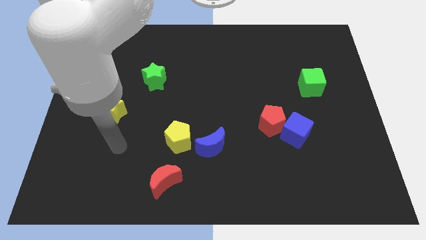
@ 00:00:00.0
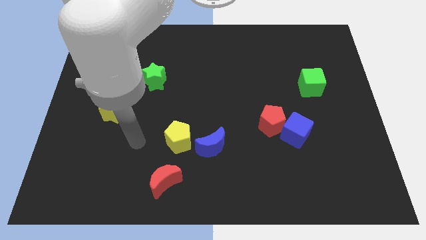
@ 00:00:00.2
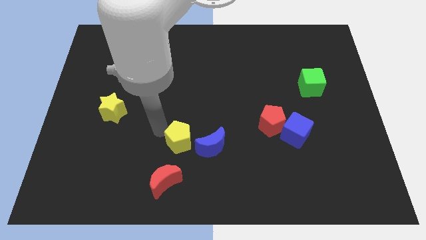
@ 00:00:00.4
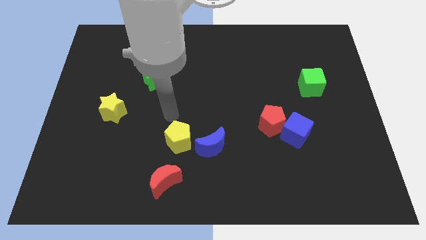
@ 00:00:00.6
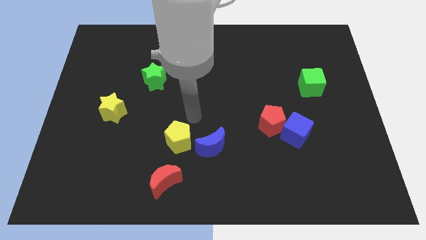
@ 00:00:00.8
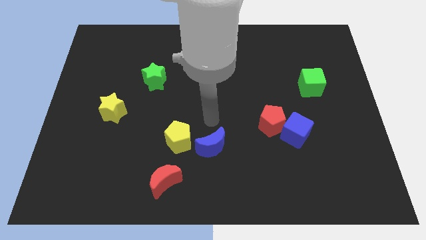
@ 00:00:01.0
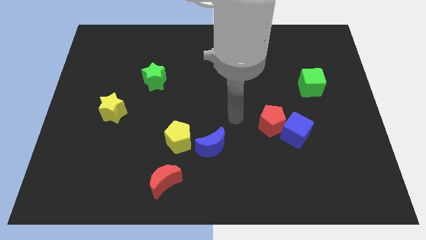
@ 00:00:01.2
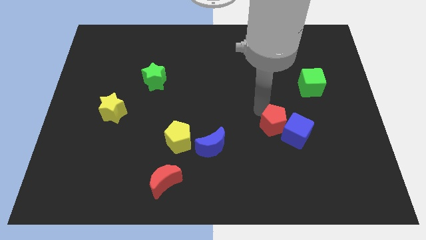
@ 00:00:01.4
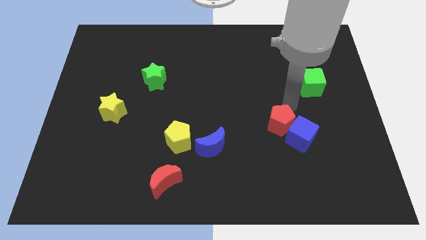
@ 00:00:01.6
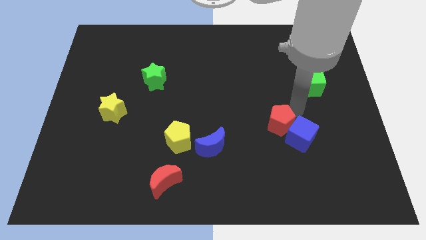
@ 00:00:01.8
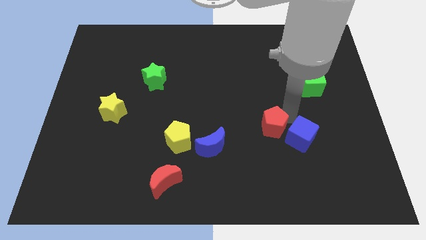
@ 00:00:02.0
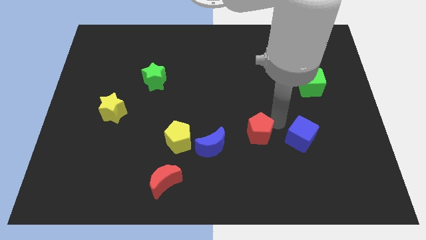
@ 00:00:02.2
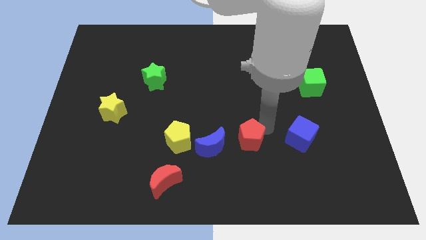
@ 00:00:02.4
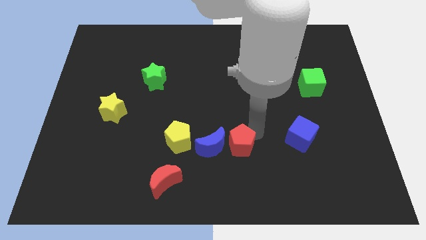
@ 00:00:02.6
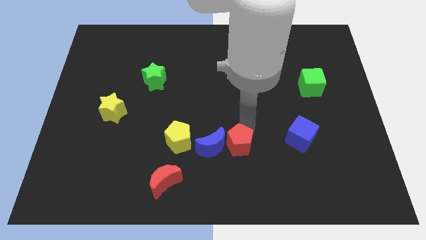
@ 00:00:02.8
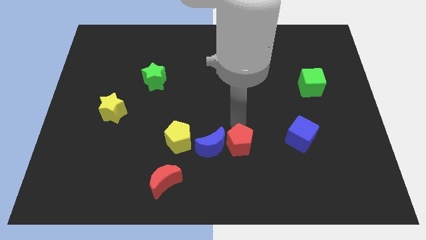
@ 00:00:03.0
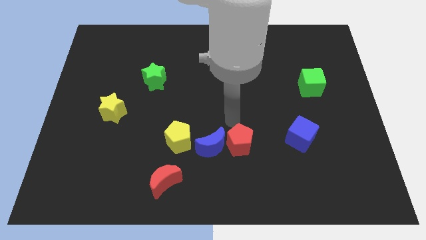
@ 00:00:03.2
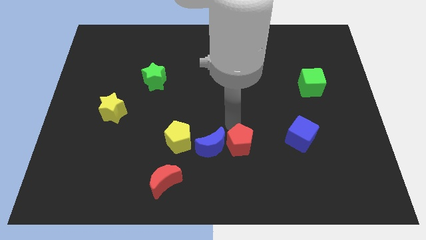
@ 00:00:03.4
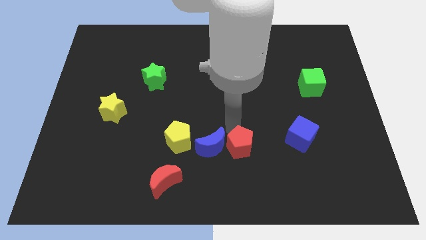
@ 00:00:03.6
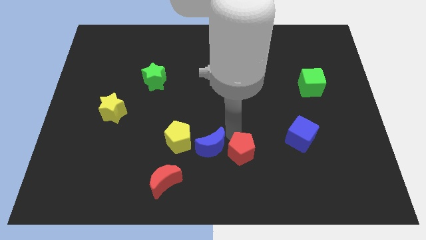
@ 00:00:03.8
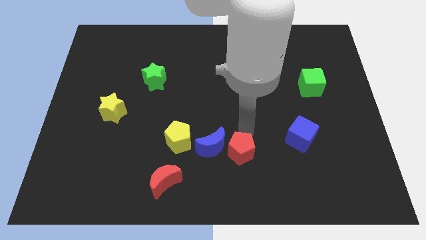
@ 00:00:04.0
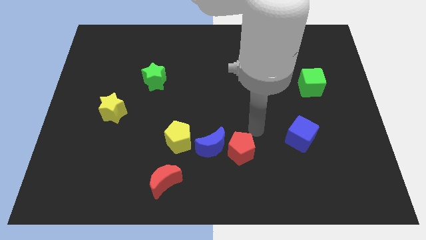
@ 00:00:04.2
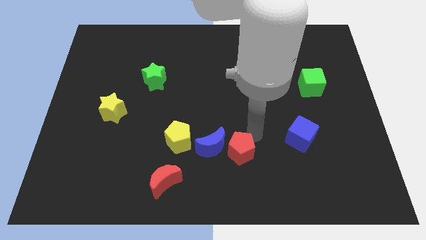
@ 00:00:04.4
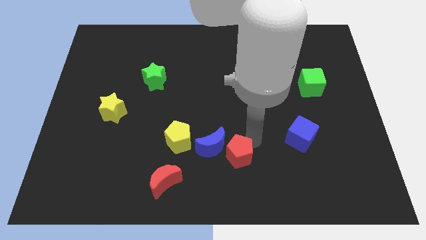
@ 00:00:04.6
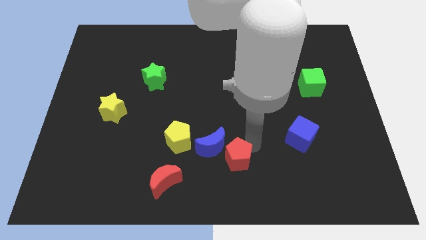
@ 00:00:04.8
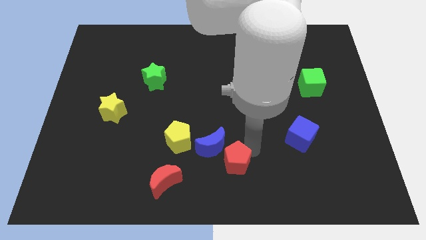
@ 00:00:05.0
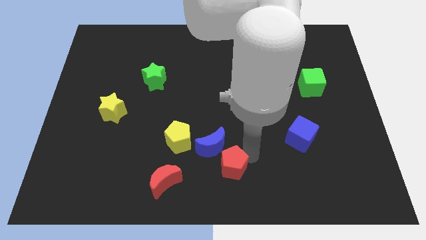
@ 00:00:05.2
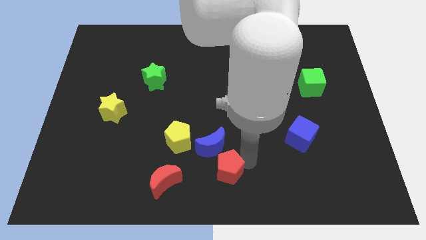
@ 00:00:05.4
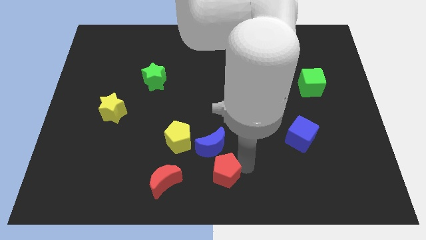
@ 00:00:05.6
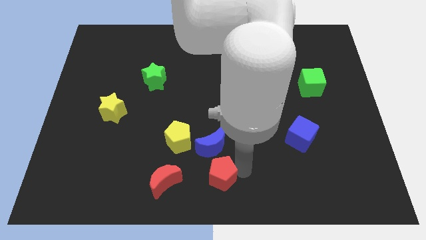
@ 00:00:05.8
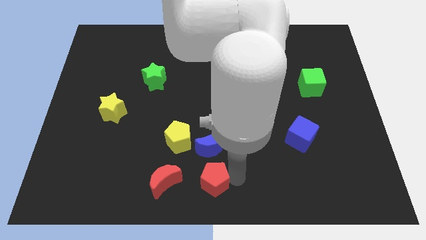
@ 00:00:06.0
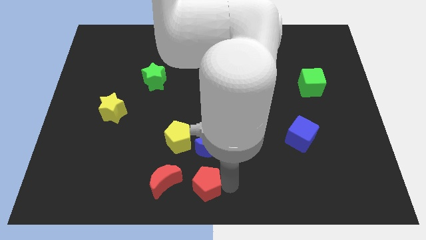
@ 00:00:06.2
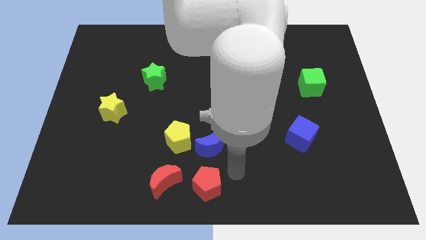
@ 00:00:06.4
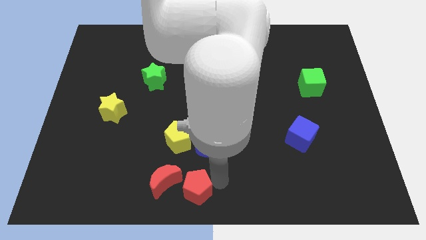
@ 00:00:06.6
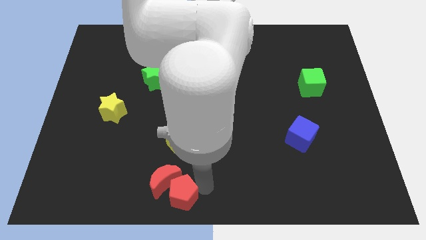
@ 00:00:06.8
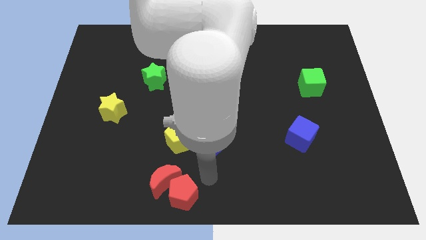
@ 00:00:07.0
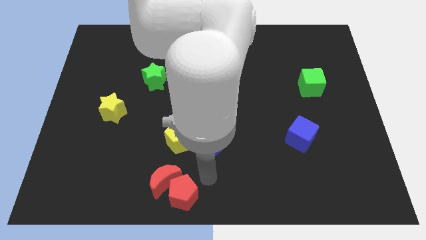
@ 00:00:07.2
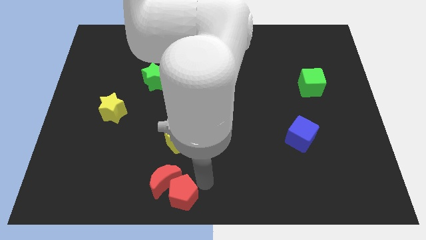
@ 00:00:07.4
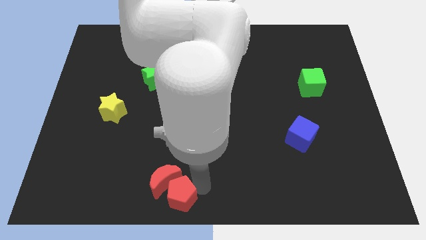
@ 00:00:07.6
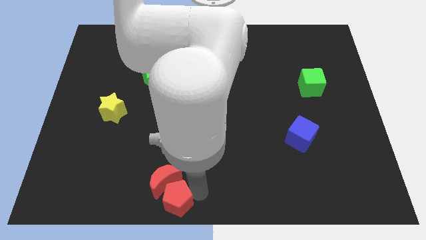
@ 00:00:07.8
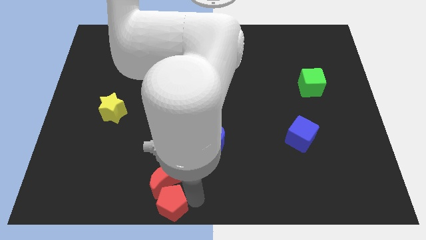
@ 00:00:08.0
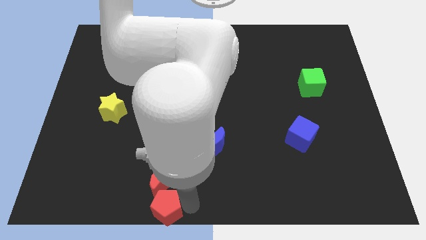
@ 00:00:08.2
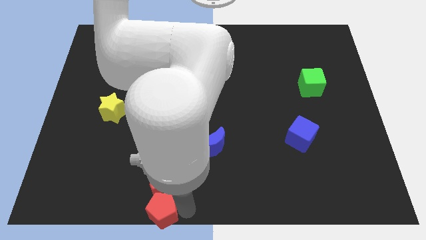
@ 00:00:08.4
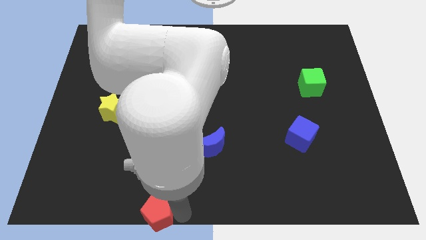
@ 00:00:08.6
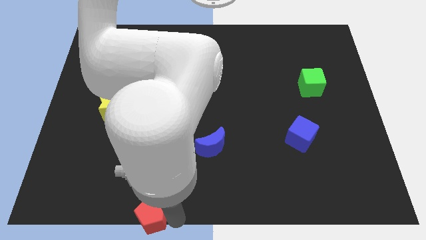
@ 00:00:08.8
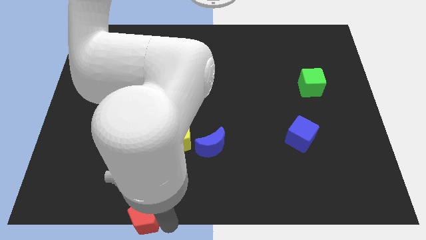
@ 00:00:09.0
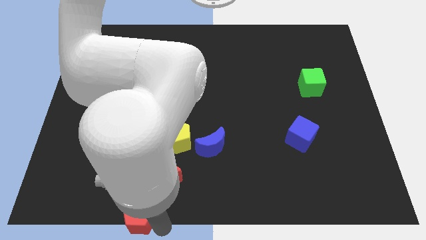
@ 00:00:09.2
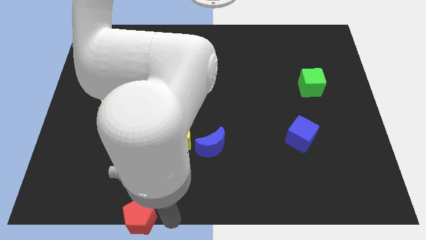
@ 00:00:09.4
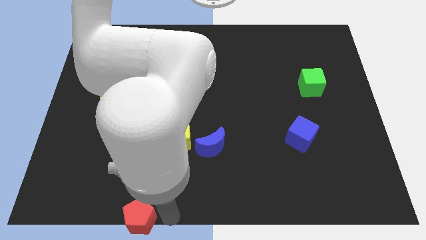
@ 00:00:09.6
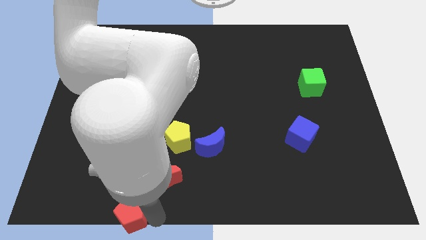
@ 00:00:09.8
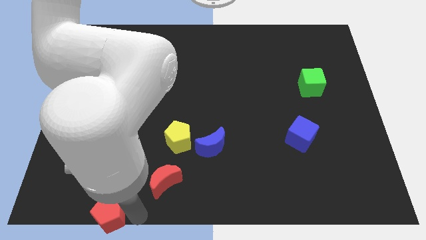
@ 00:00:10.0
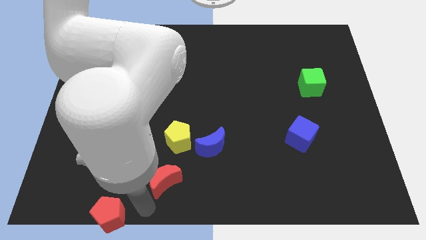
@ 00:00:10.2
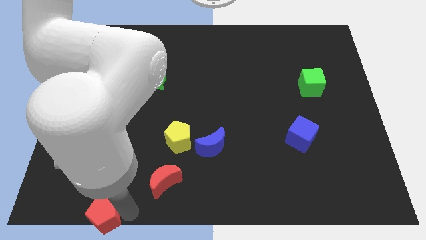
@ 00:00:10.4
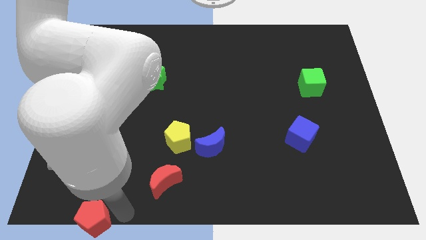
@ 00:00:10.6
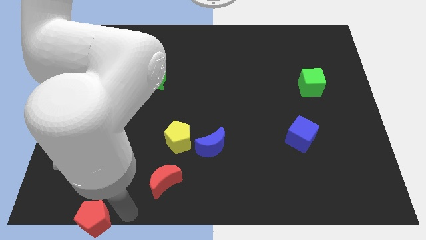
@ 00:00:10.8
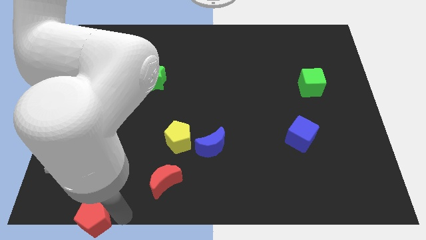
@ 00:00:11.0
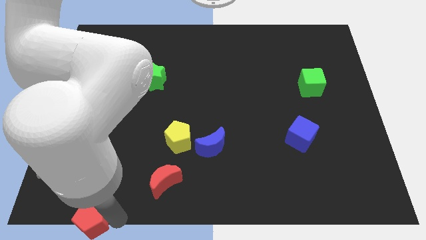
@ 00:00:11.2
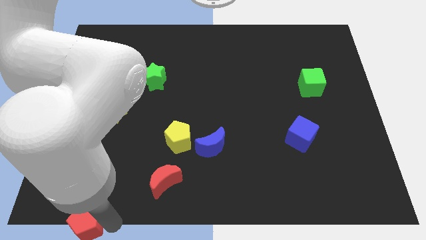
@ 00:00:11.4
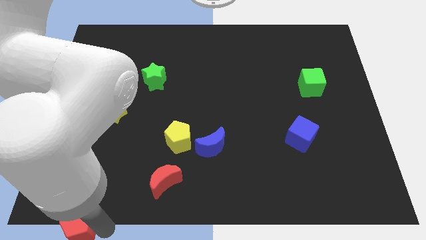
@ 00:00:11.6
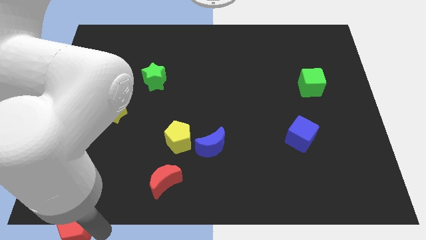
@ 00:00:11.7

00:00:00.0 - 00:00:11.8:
move the red pentagon to the bottom left corner
